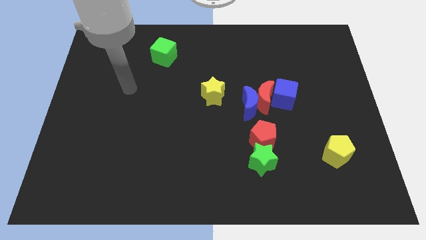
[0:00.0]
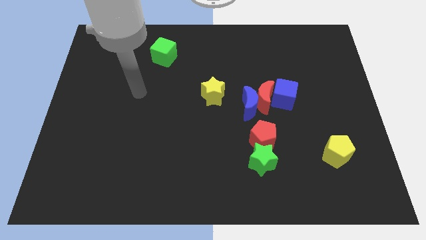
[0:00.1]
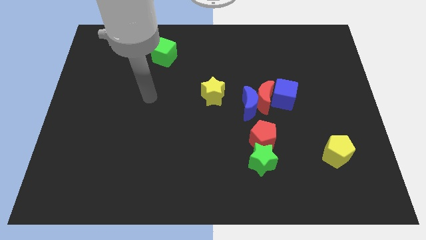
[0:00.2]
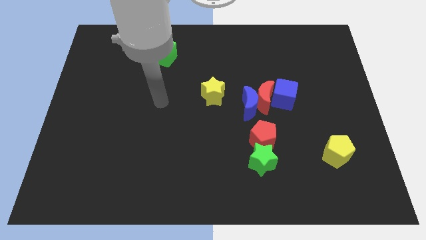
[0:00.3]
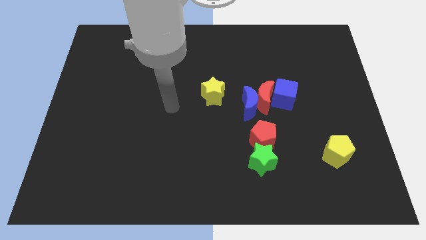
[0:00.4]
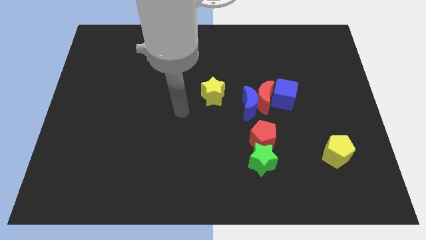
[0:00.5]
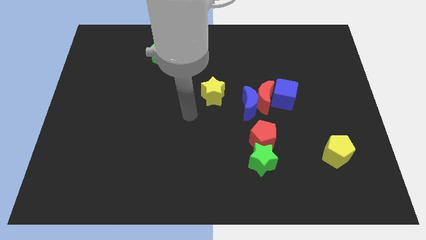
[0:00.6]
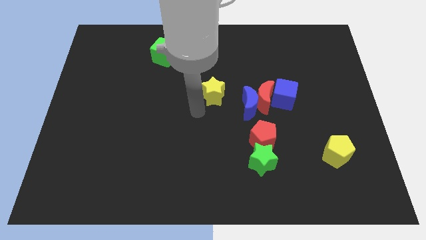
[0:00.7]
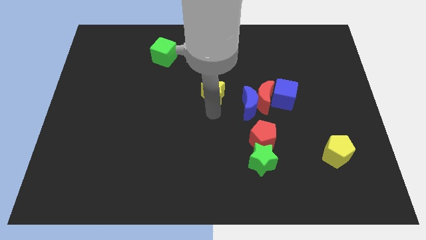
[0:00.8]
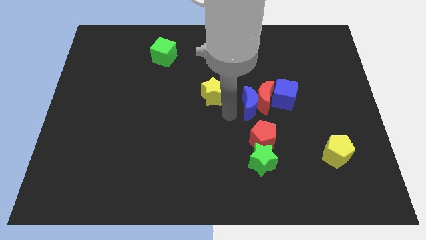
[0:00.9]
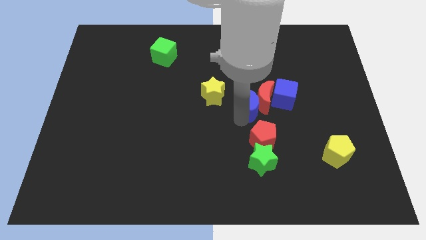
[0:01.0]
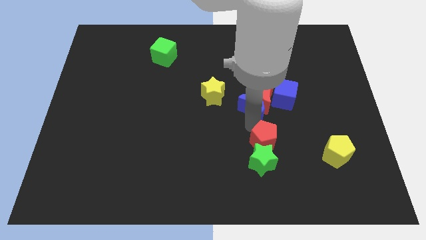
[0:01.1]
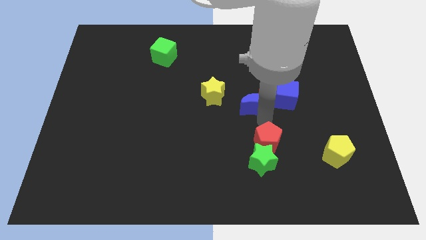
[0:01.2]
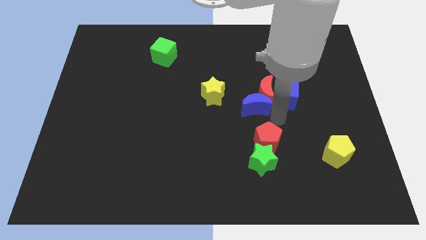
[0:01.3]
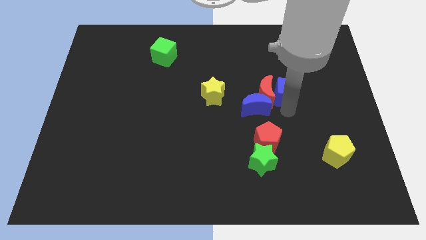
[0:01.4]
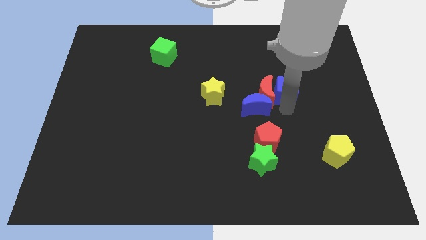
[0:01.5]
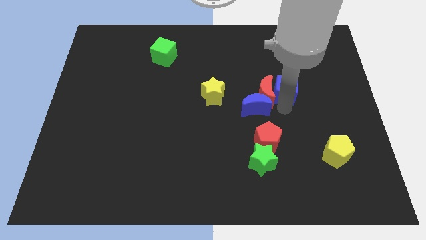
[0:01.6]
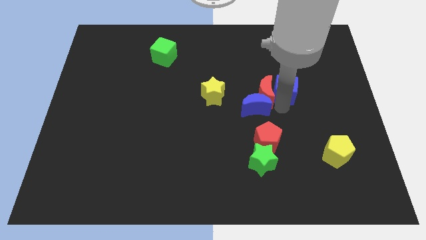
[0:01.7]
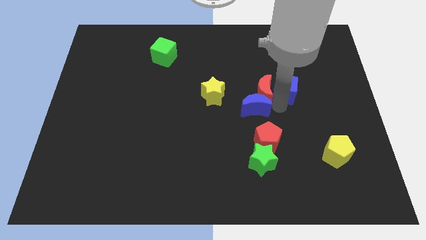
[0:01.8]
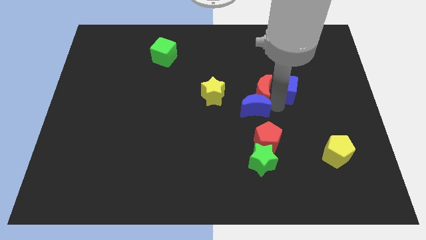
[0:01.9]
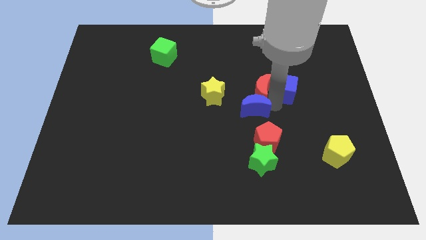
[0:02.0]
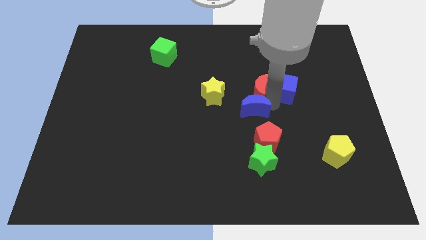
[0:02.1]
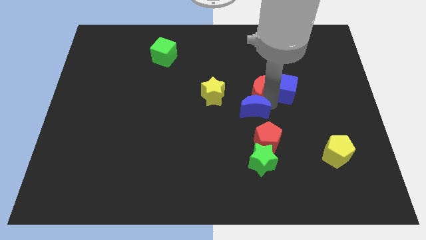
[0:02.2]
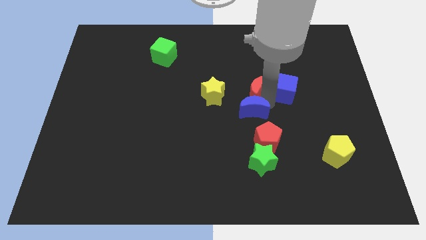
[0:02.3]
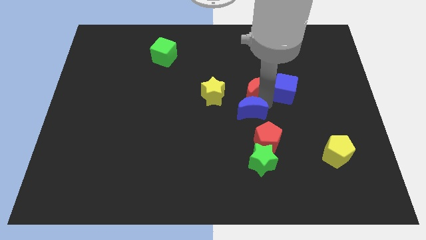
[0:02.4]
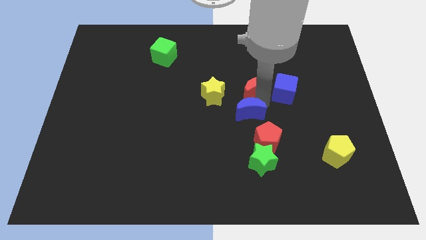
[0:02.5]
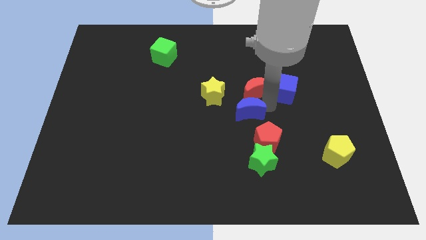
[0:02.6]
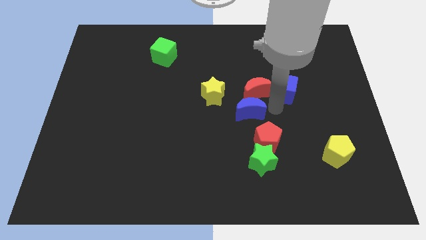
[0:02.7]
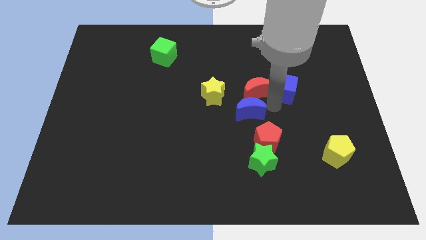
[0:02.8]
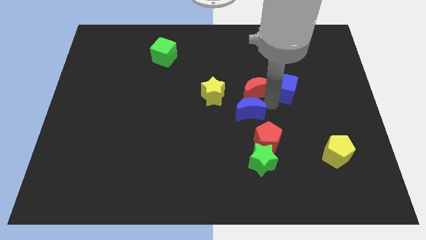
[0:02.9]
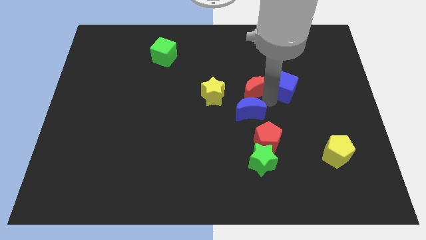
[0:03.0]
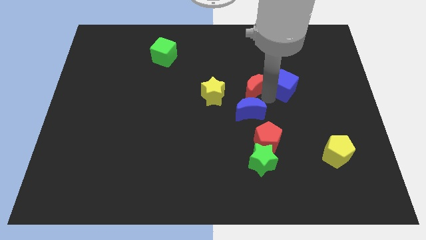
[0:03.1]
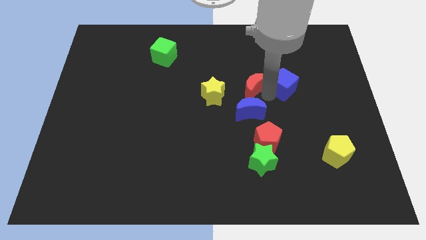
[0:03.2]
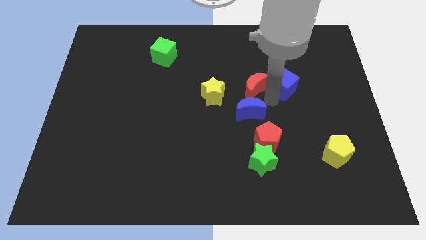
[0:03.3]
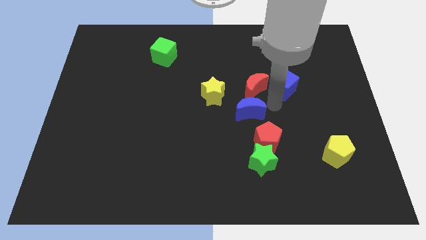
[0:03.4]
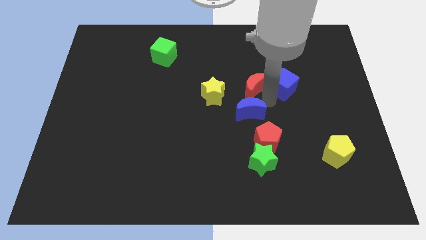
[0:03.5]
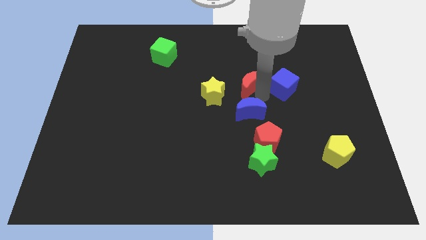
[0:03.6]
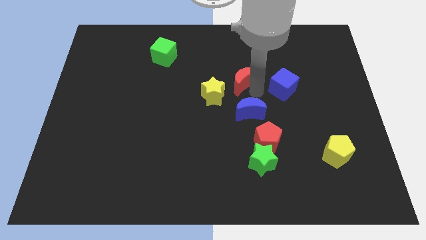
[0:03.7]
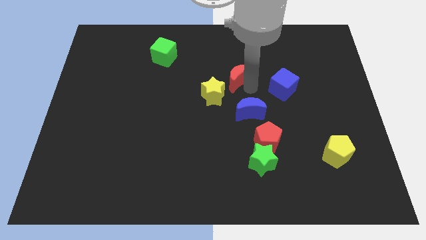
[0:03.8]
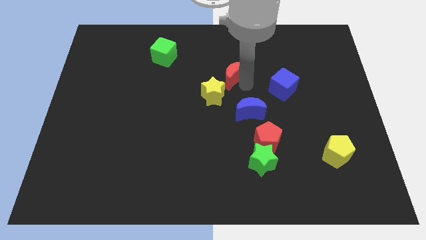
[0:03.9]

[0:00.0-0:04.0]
move the red moon away from the blue moon and blue cube

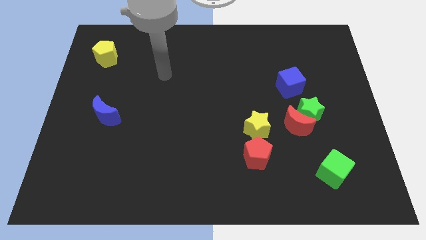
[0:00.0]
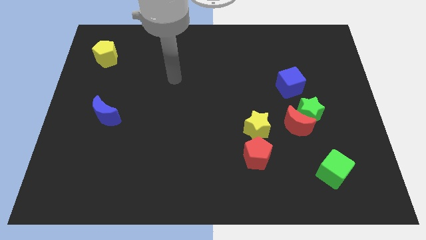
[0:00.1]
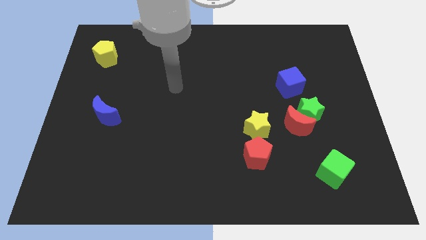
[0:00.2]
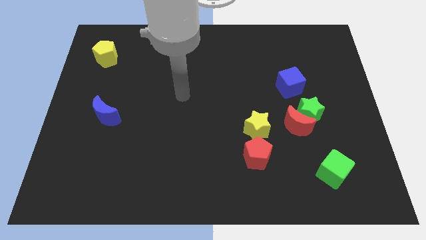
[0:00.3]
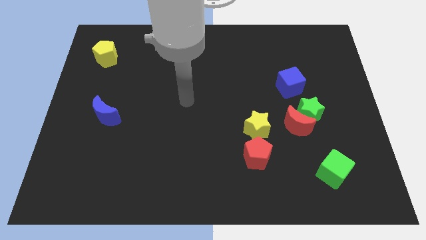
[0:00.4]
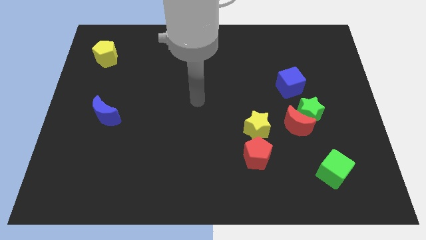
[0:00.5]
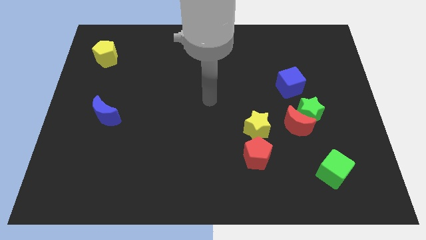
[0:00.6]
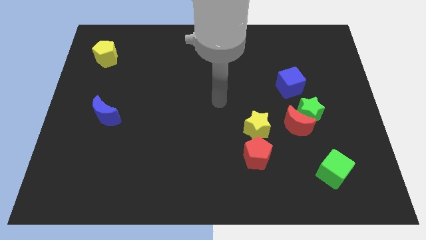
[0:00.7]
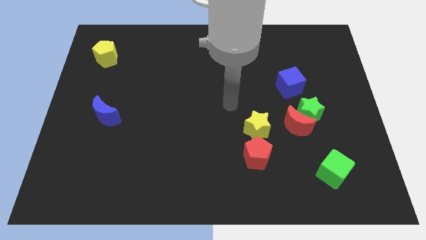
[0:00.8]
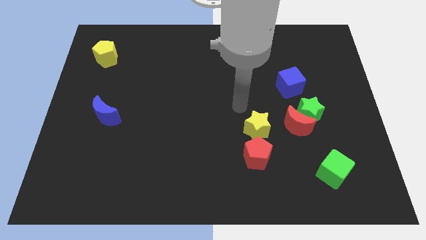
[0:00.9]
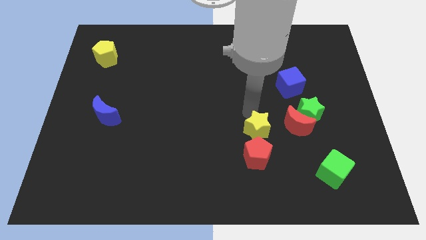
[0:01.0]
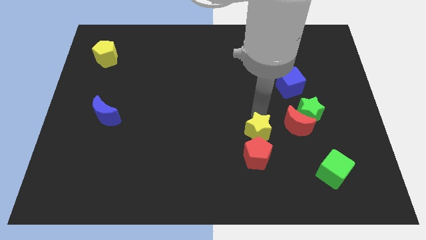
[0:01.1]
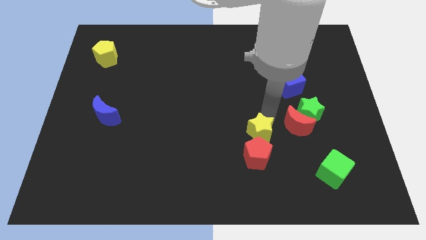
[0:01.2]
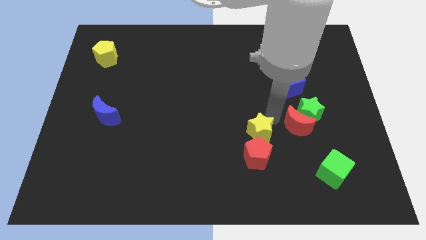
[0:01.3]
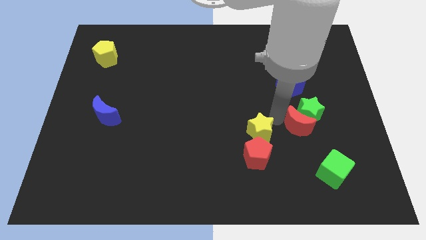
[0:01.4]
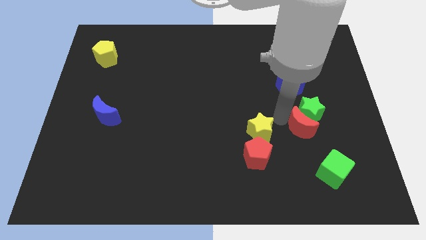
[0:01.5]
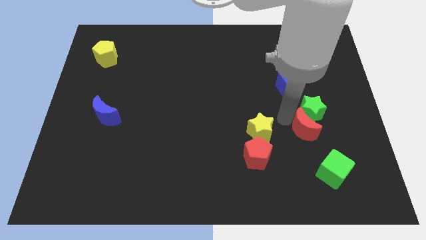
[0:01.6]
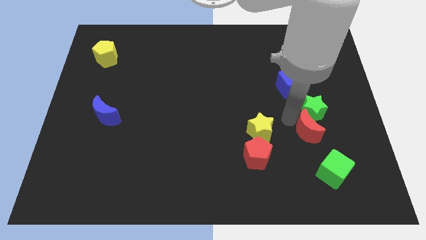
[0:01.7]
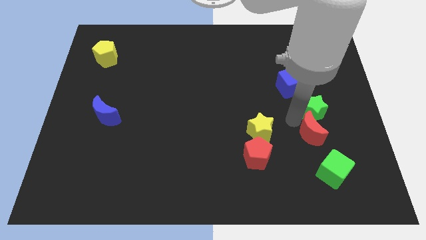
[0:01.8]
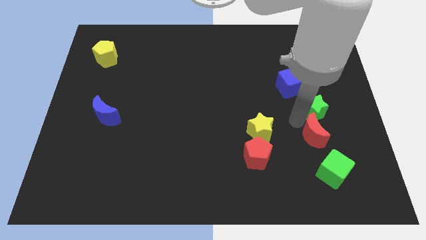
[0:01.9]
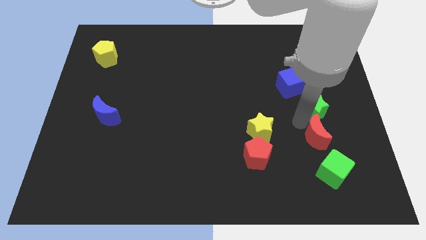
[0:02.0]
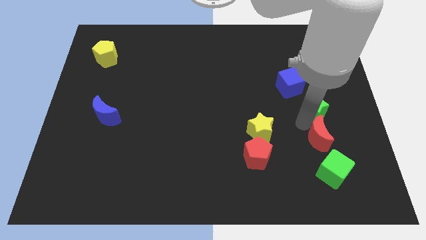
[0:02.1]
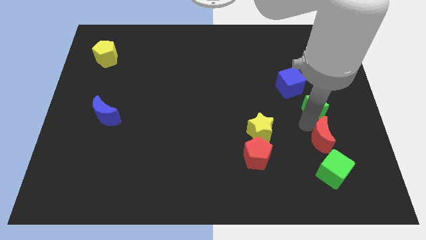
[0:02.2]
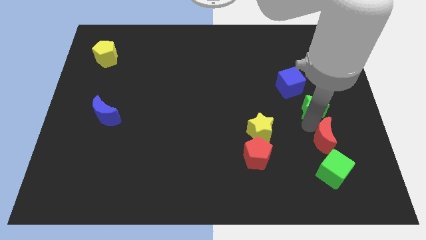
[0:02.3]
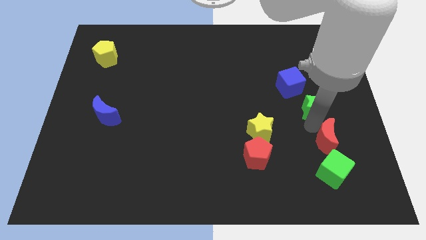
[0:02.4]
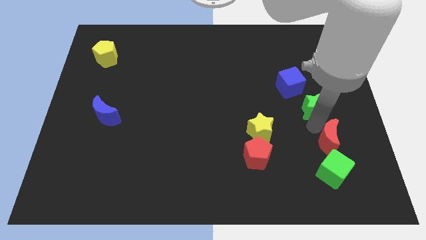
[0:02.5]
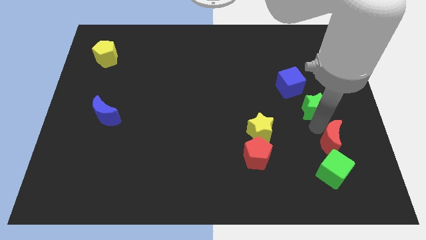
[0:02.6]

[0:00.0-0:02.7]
pull the red moon apart from the green star and yellow star

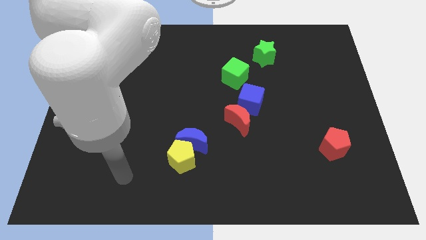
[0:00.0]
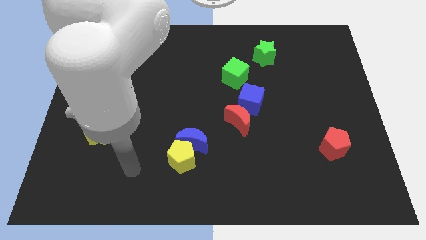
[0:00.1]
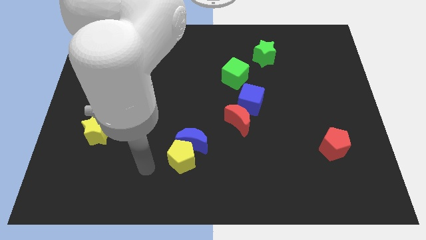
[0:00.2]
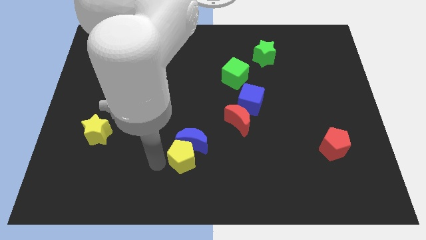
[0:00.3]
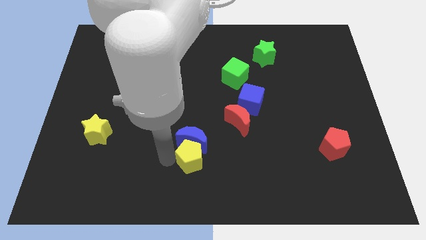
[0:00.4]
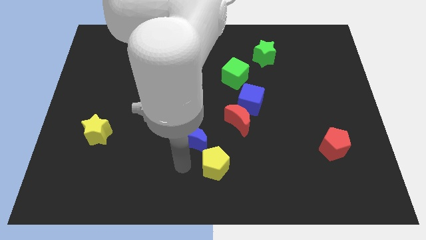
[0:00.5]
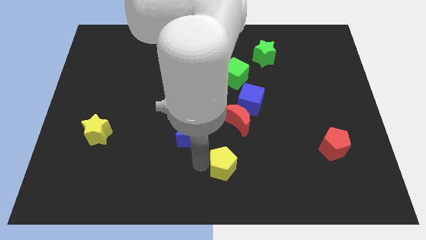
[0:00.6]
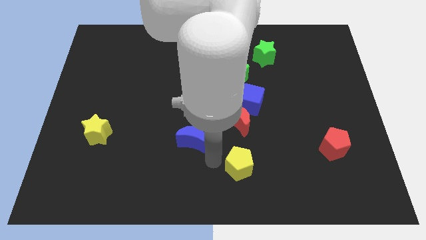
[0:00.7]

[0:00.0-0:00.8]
move the blue moon away from the yellow pentagon

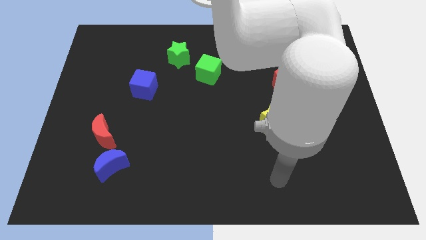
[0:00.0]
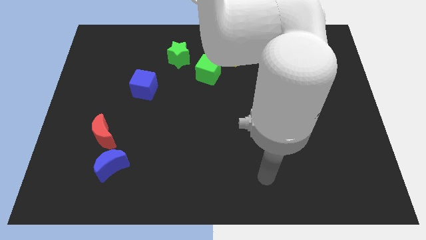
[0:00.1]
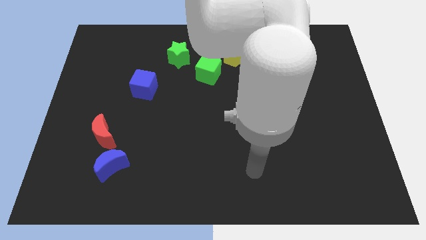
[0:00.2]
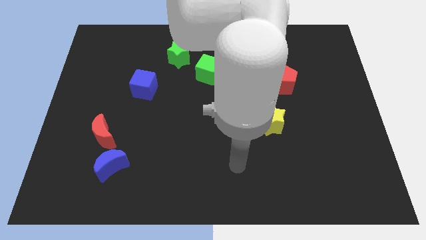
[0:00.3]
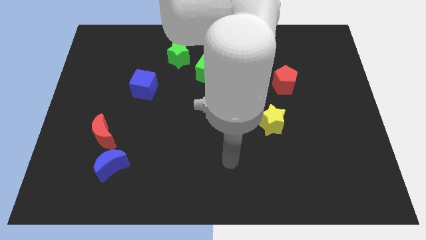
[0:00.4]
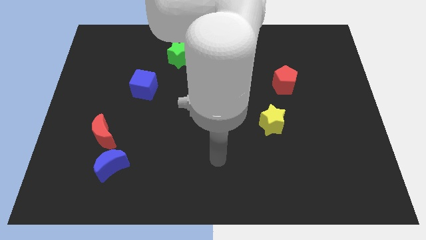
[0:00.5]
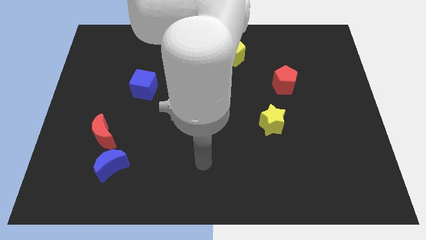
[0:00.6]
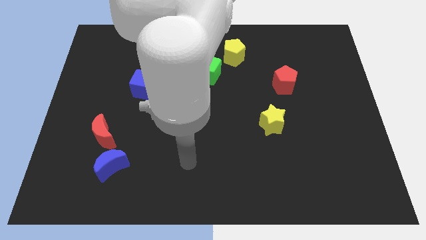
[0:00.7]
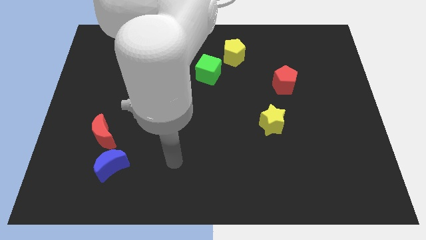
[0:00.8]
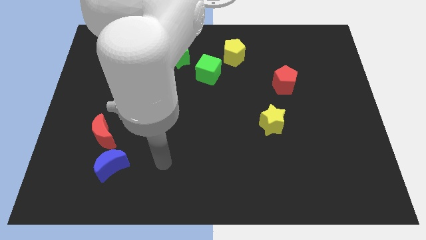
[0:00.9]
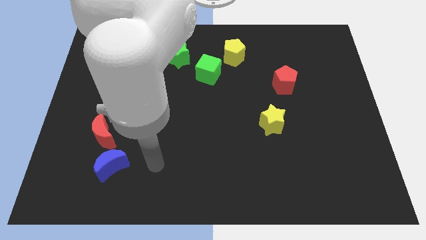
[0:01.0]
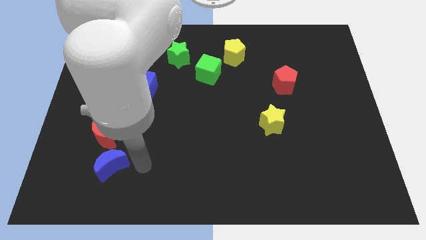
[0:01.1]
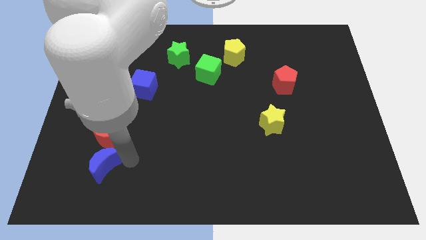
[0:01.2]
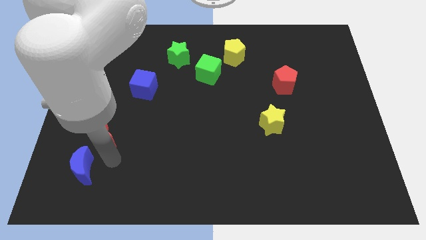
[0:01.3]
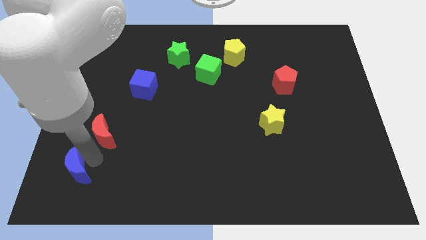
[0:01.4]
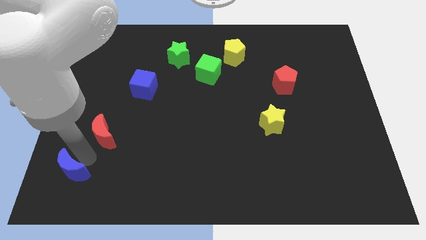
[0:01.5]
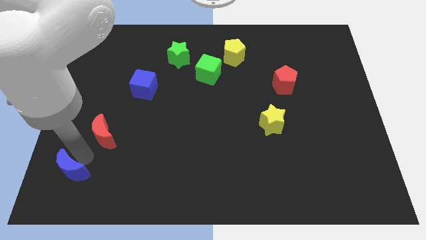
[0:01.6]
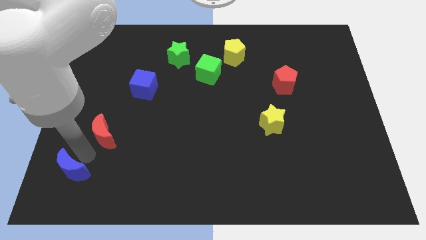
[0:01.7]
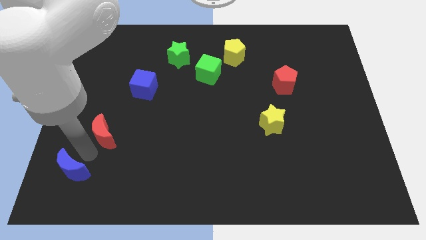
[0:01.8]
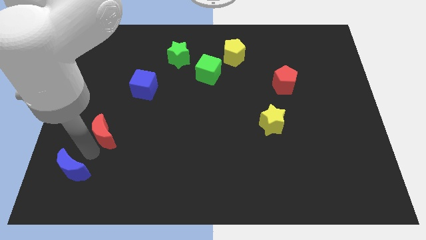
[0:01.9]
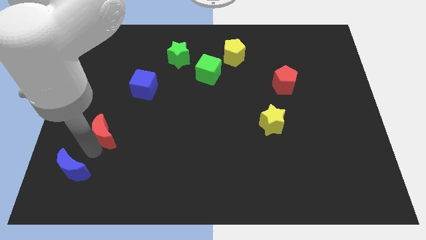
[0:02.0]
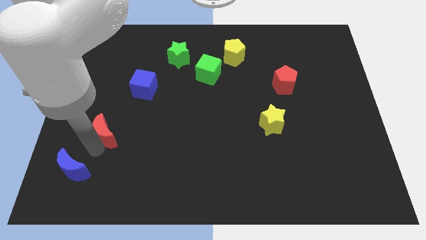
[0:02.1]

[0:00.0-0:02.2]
move the red moon away from the blue moon
